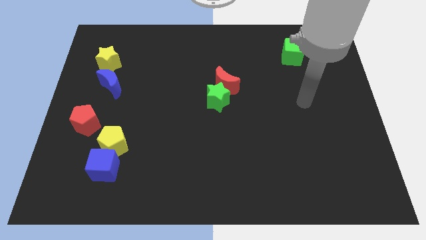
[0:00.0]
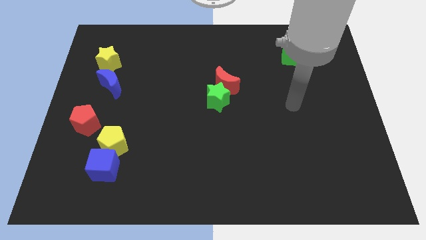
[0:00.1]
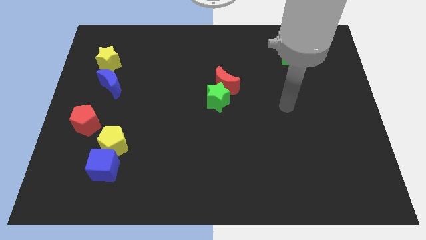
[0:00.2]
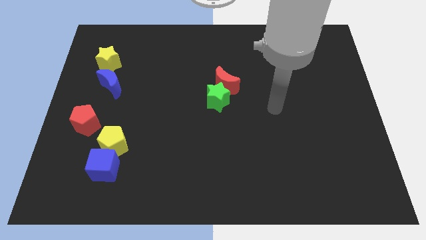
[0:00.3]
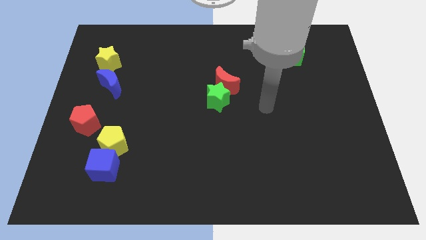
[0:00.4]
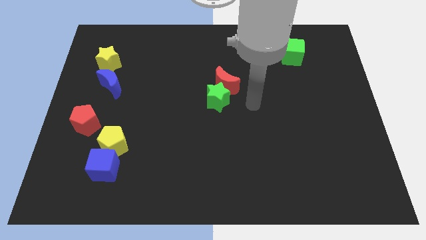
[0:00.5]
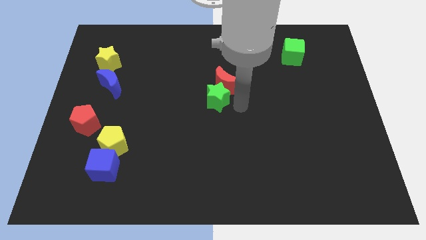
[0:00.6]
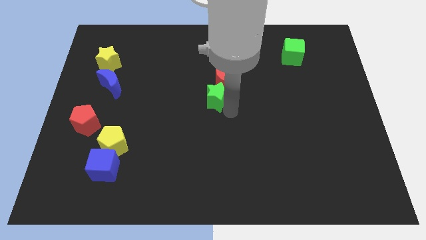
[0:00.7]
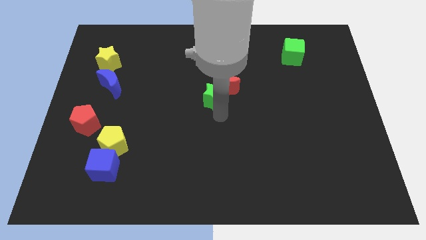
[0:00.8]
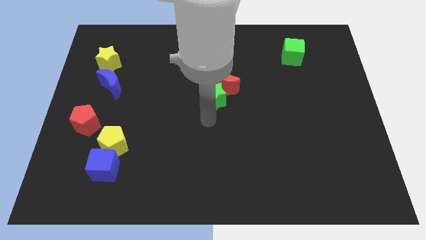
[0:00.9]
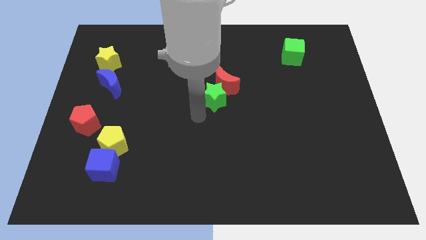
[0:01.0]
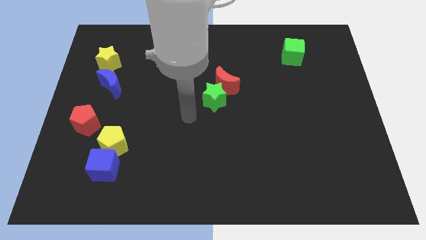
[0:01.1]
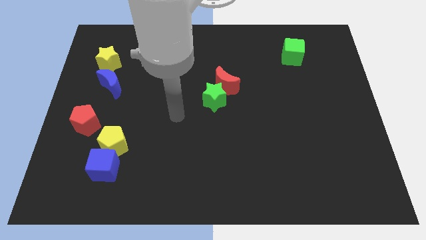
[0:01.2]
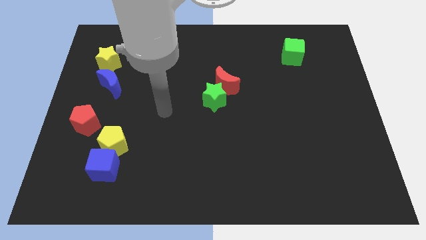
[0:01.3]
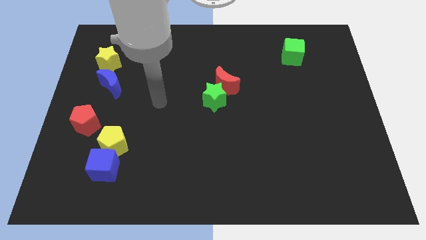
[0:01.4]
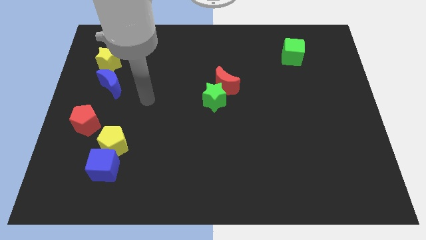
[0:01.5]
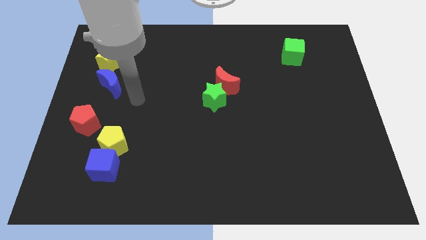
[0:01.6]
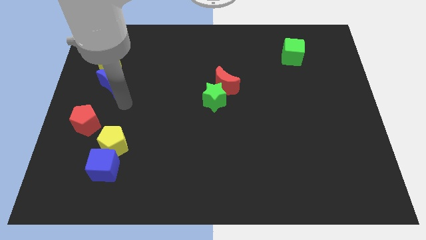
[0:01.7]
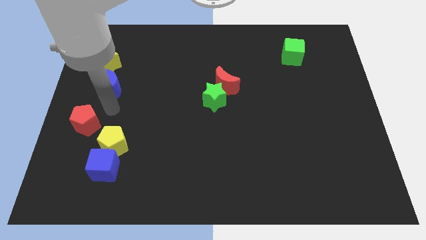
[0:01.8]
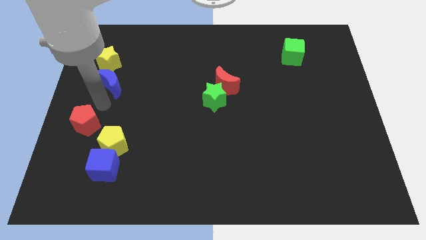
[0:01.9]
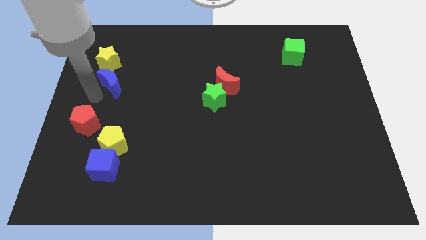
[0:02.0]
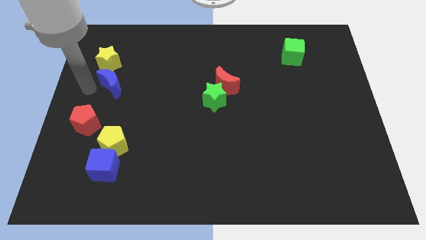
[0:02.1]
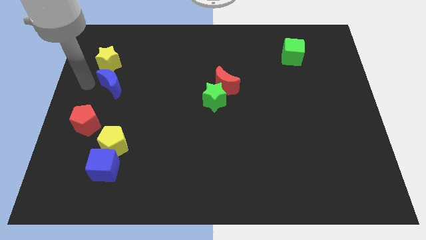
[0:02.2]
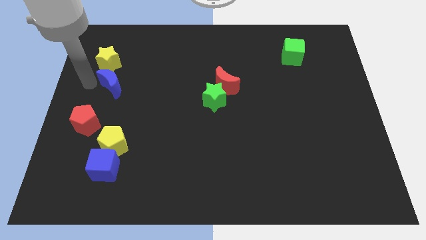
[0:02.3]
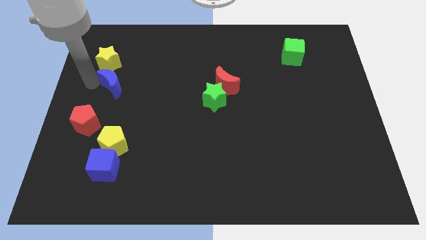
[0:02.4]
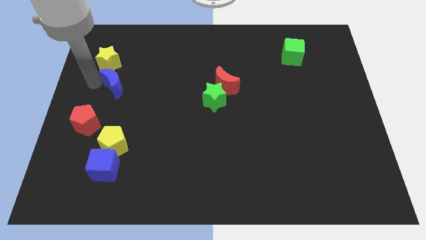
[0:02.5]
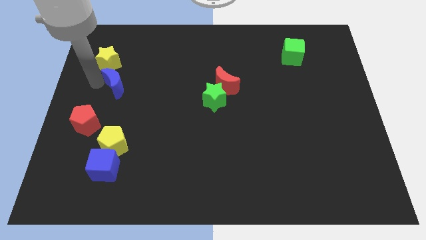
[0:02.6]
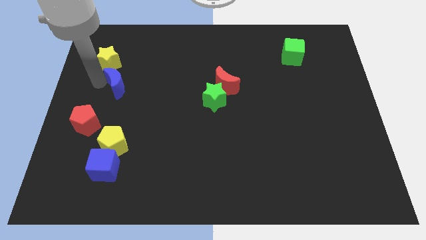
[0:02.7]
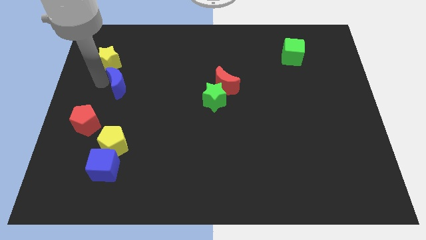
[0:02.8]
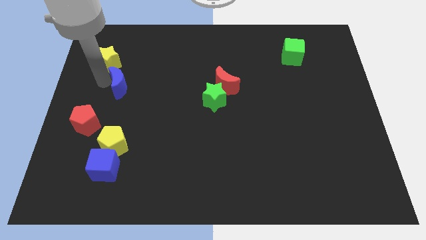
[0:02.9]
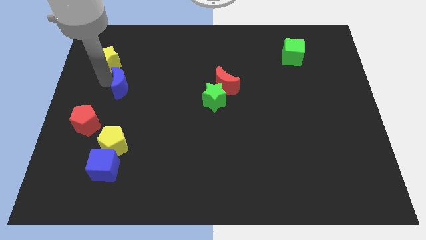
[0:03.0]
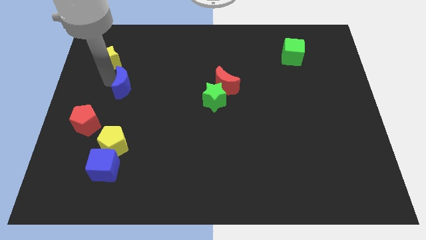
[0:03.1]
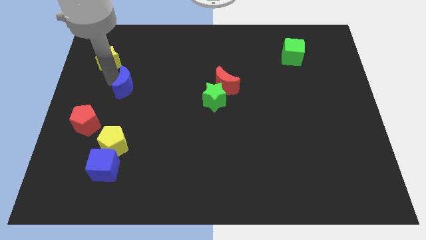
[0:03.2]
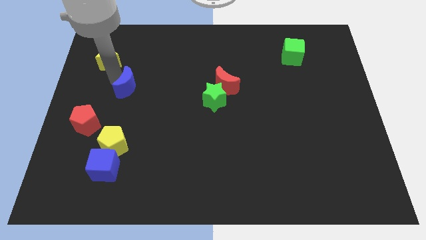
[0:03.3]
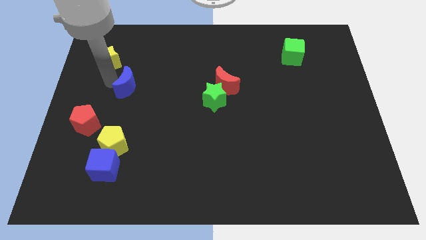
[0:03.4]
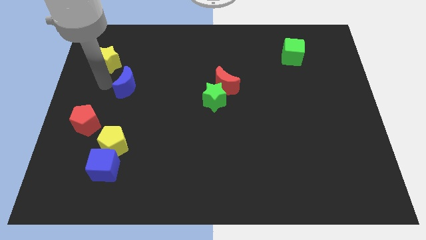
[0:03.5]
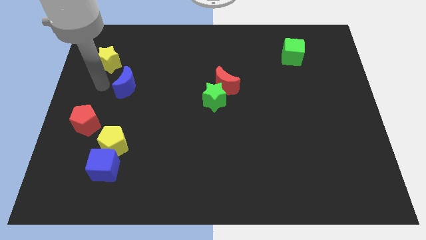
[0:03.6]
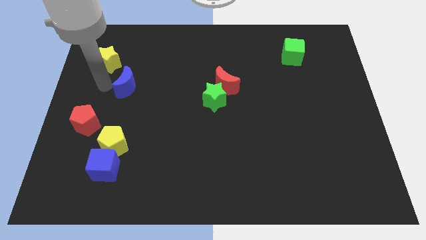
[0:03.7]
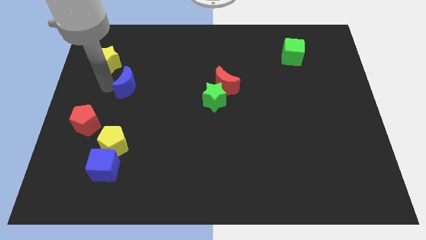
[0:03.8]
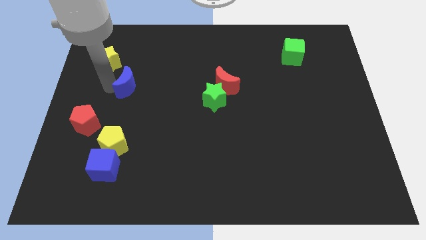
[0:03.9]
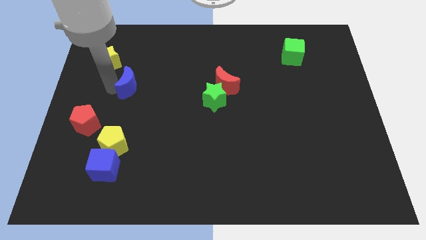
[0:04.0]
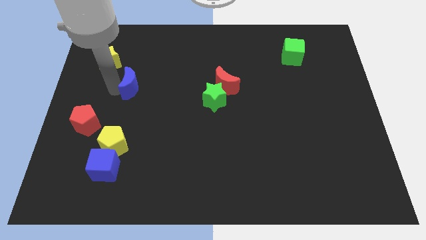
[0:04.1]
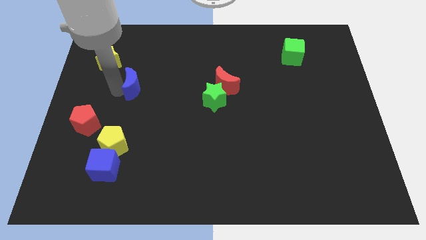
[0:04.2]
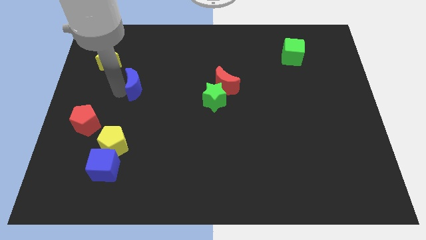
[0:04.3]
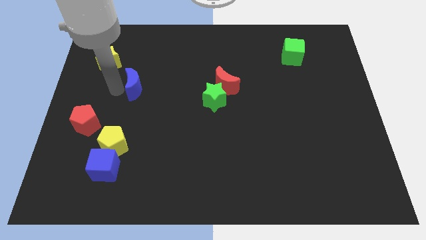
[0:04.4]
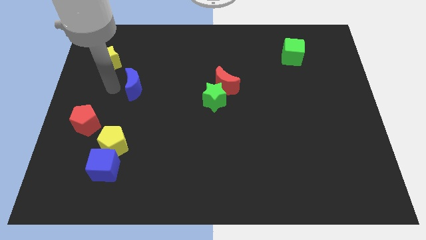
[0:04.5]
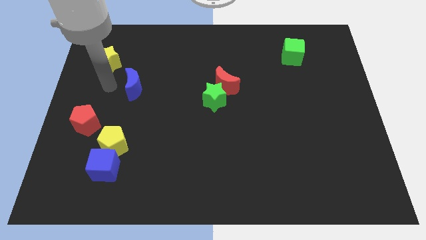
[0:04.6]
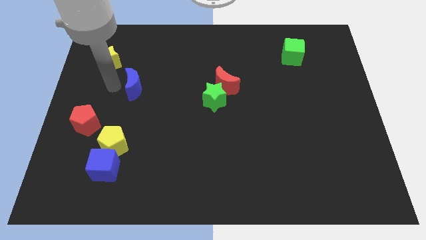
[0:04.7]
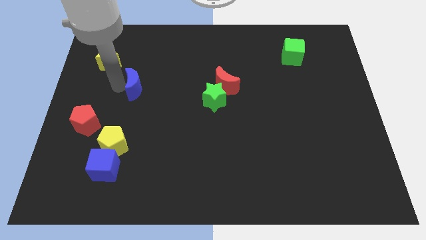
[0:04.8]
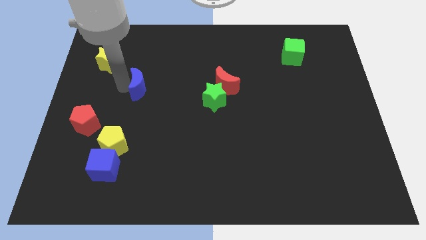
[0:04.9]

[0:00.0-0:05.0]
slide the blue moon a little right

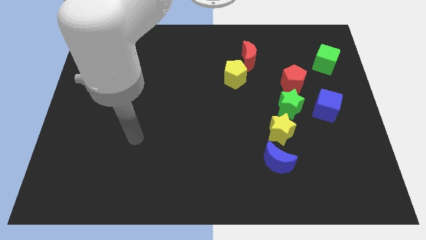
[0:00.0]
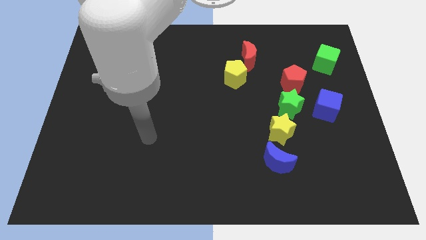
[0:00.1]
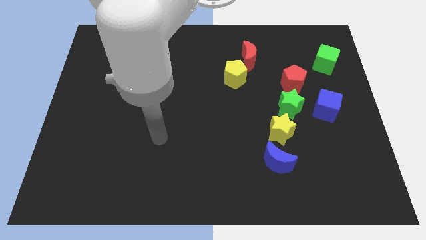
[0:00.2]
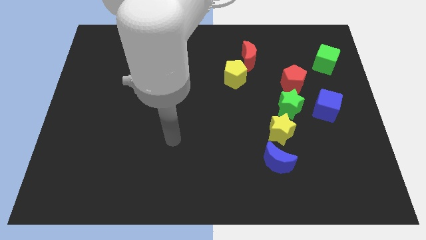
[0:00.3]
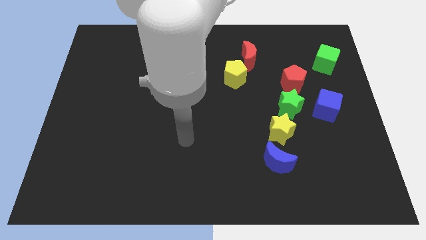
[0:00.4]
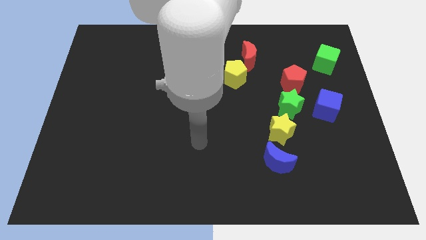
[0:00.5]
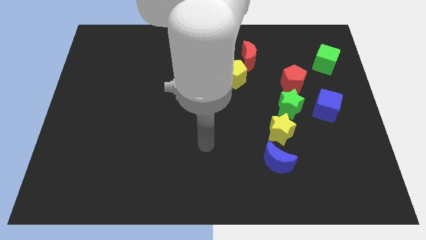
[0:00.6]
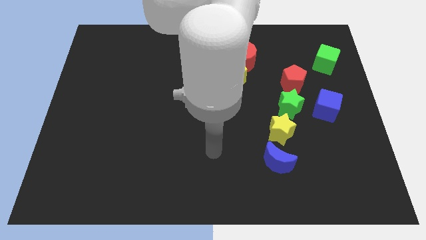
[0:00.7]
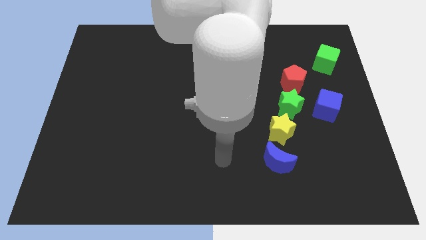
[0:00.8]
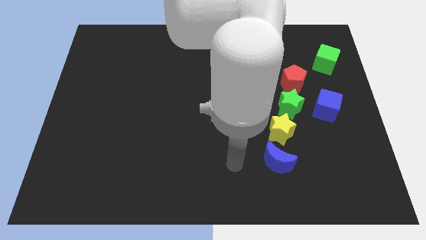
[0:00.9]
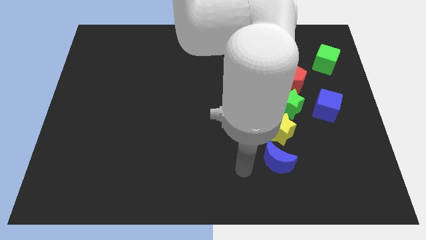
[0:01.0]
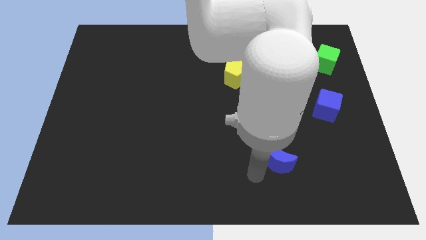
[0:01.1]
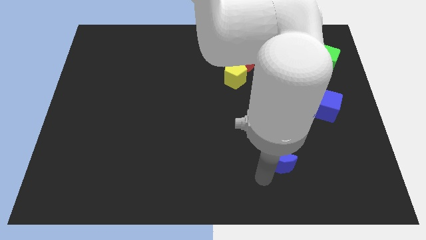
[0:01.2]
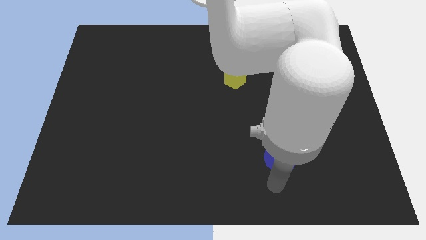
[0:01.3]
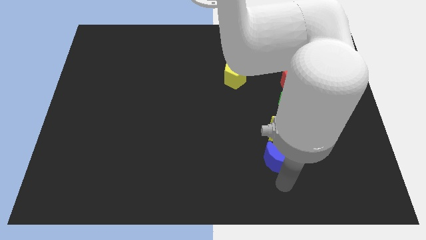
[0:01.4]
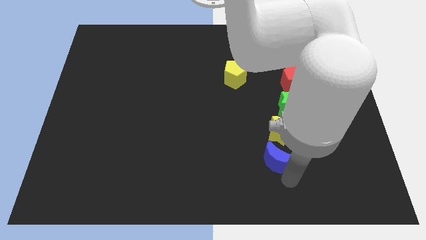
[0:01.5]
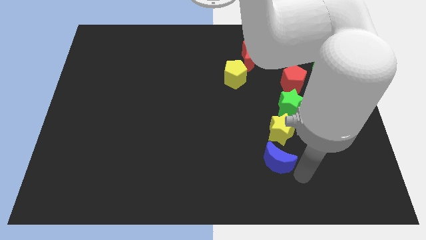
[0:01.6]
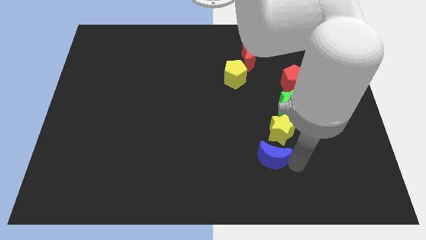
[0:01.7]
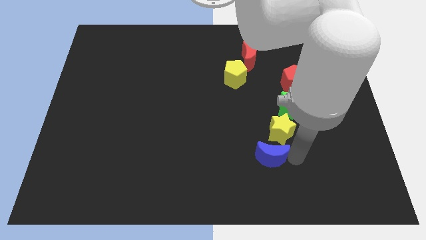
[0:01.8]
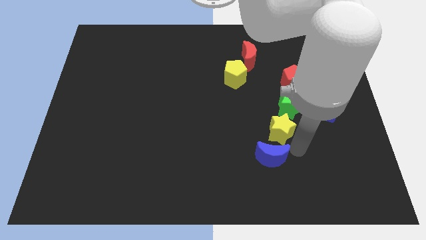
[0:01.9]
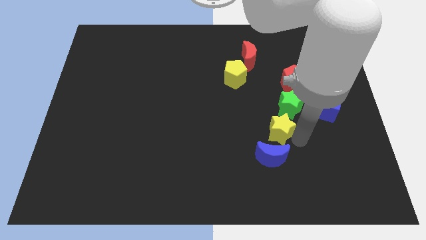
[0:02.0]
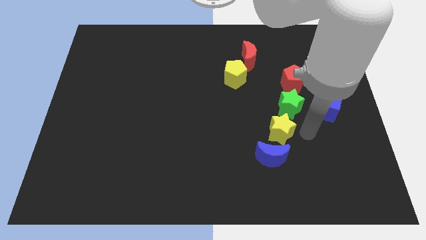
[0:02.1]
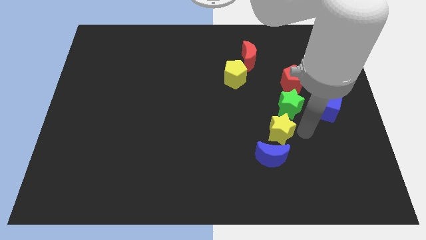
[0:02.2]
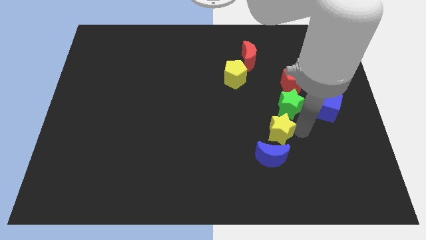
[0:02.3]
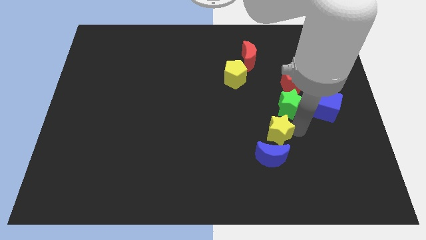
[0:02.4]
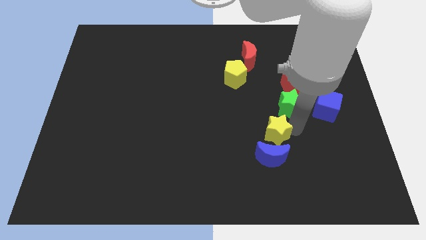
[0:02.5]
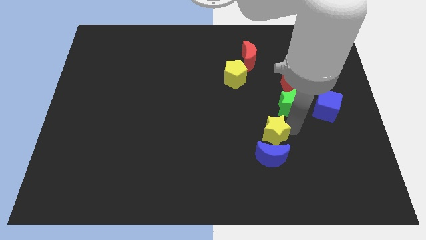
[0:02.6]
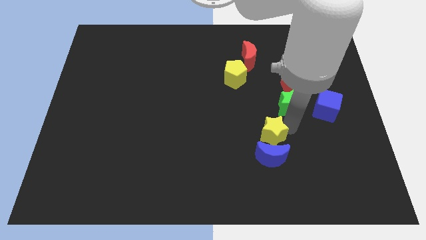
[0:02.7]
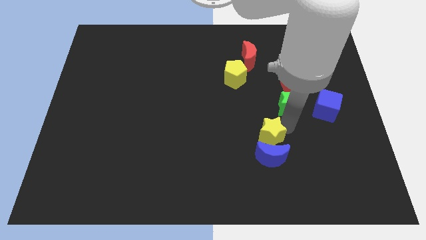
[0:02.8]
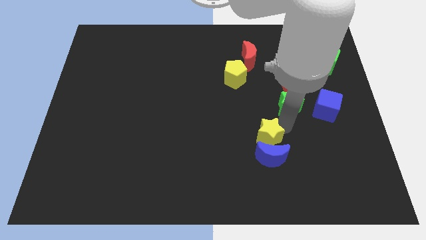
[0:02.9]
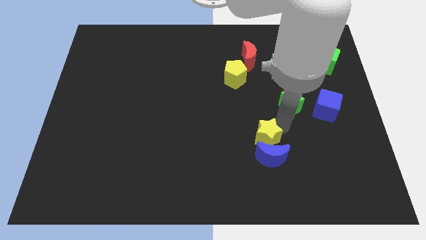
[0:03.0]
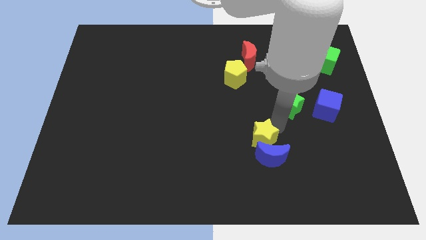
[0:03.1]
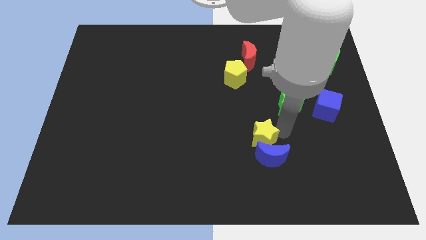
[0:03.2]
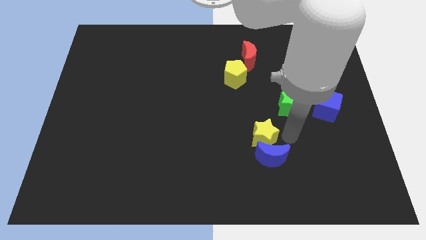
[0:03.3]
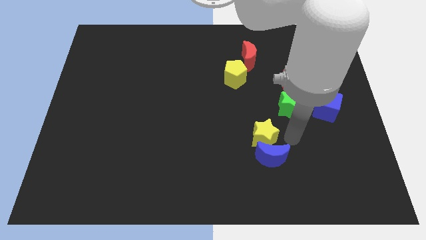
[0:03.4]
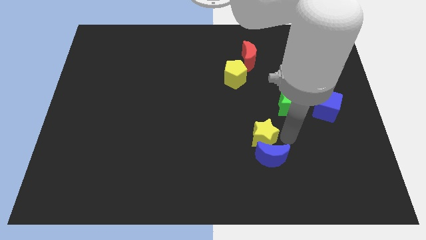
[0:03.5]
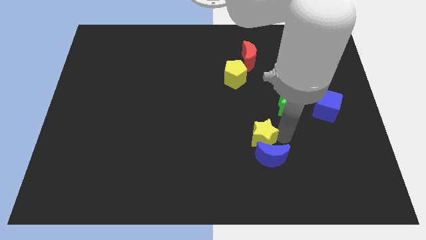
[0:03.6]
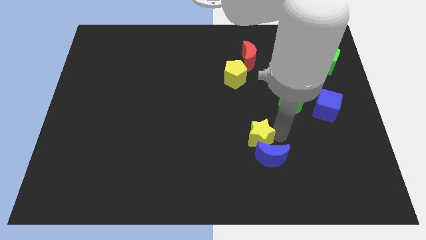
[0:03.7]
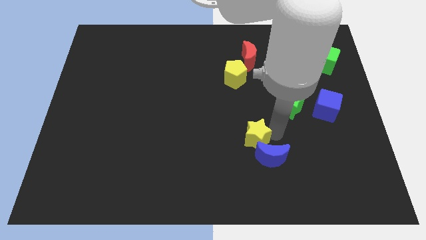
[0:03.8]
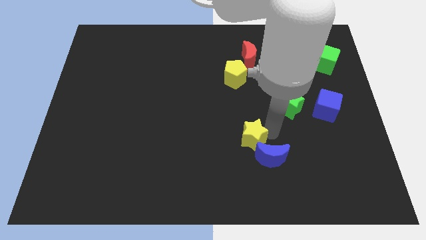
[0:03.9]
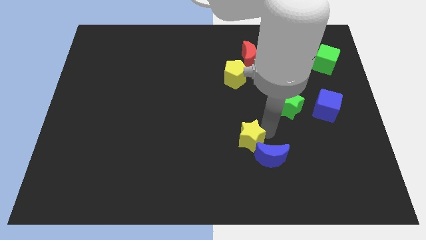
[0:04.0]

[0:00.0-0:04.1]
slide the yellow star to the left a bit
